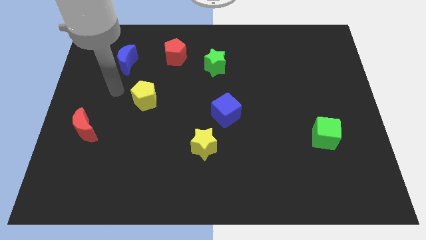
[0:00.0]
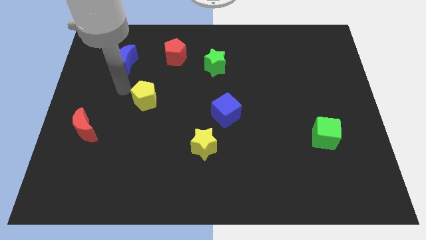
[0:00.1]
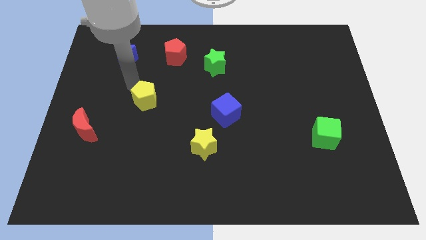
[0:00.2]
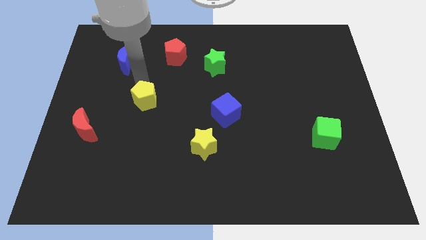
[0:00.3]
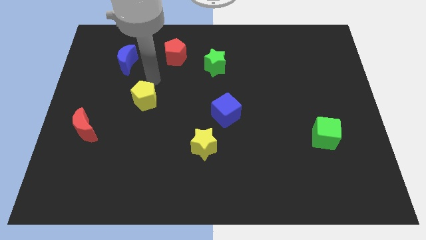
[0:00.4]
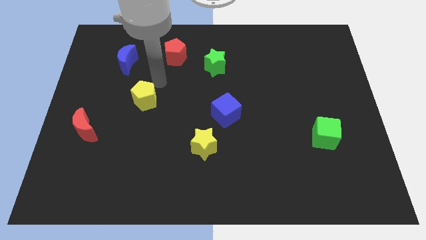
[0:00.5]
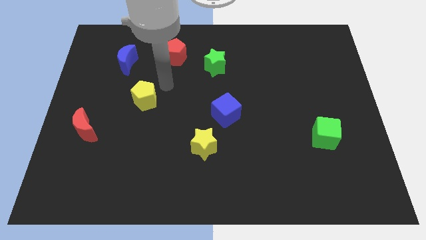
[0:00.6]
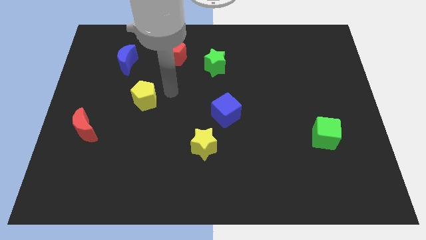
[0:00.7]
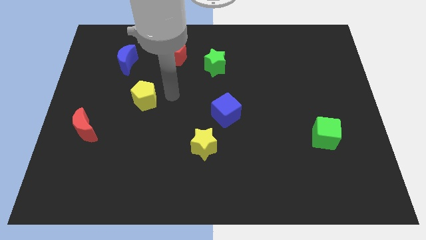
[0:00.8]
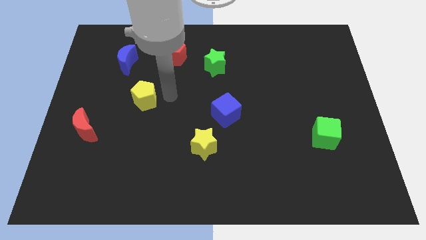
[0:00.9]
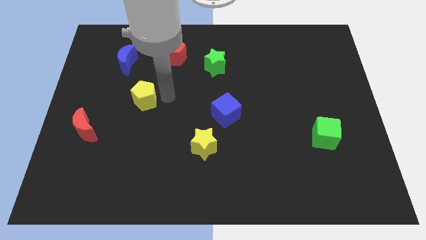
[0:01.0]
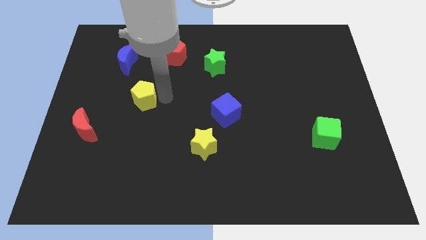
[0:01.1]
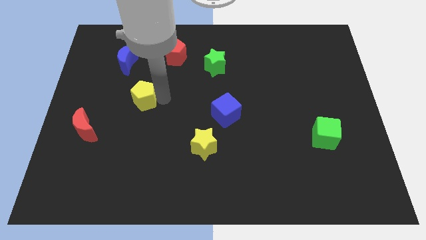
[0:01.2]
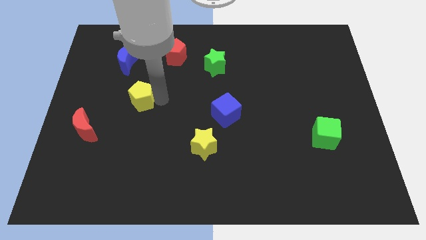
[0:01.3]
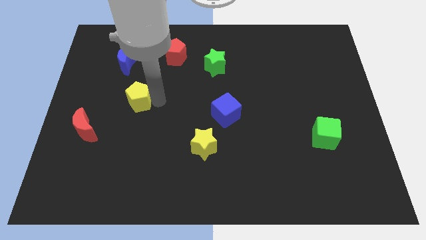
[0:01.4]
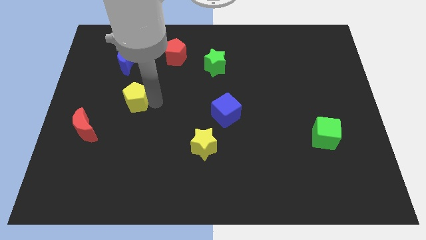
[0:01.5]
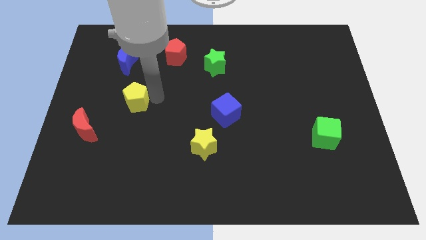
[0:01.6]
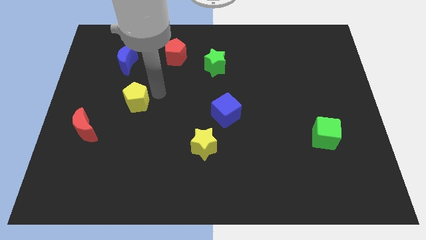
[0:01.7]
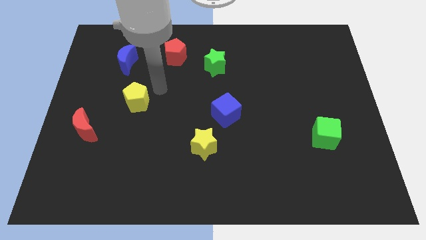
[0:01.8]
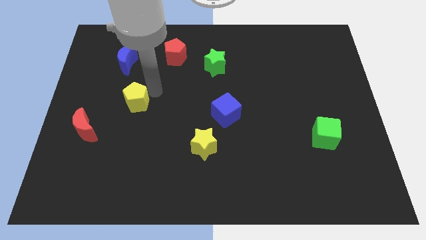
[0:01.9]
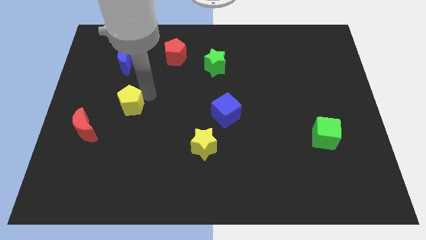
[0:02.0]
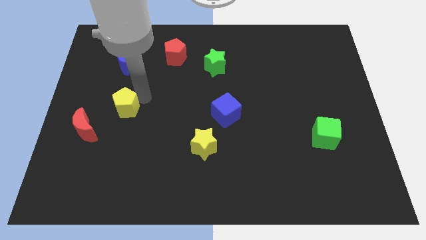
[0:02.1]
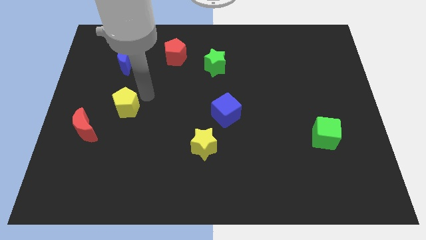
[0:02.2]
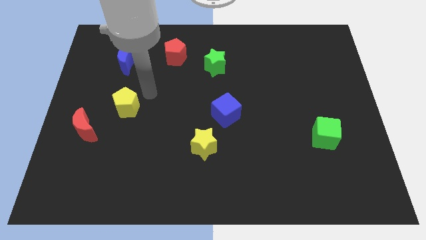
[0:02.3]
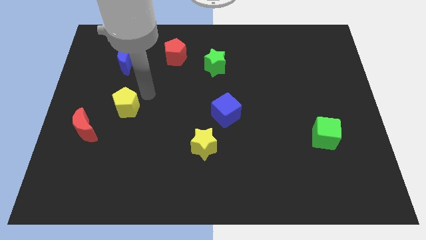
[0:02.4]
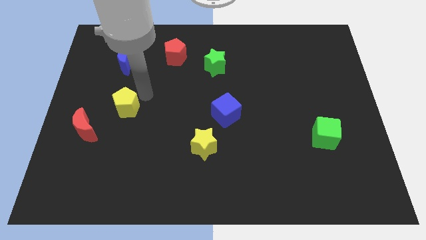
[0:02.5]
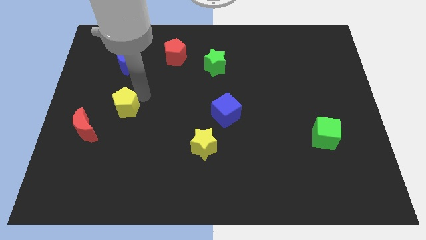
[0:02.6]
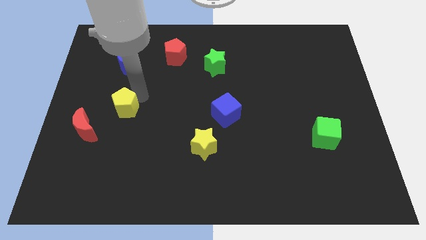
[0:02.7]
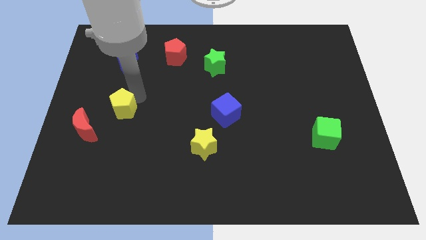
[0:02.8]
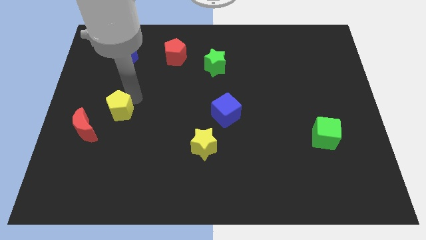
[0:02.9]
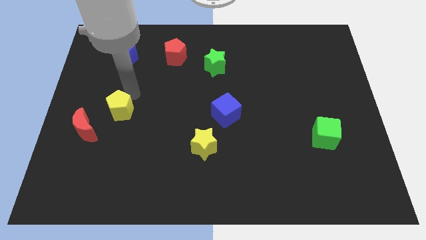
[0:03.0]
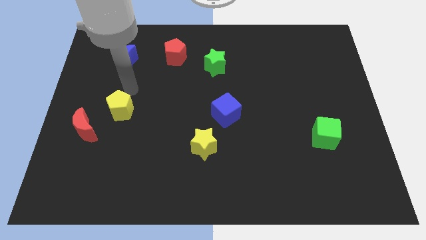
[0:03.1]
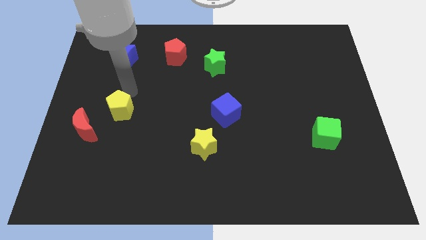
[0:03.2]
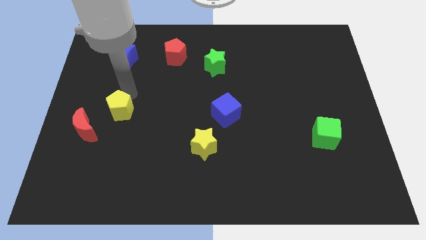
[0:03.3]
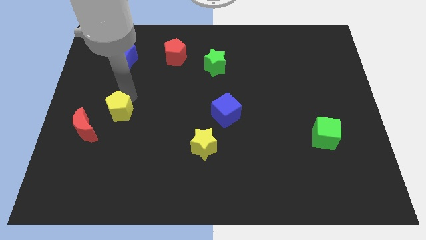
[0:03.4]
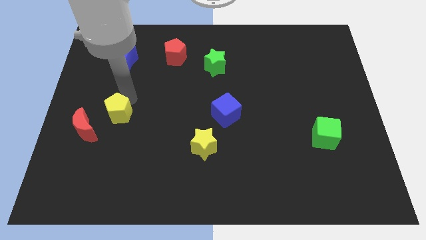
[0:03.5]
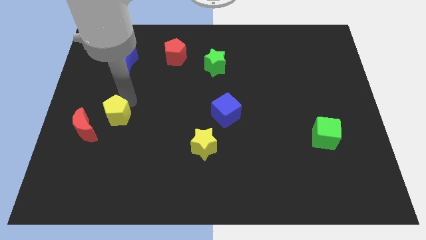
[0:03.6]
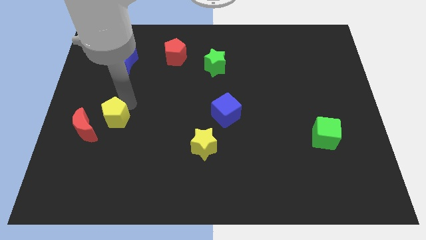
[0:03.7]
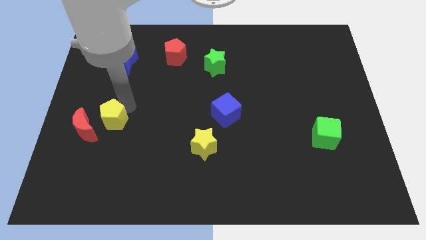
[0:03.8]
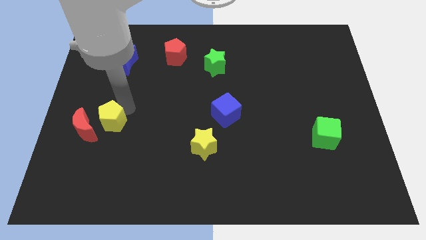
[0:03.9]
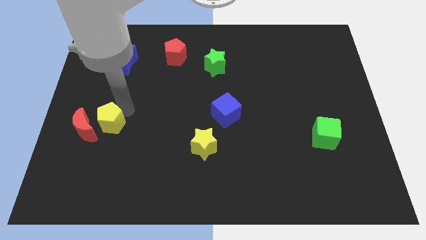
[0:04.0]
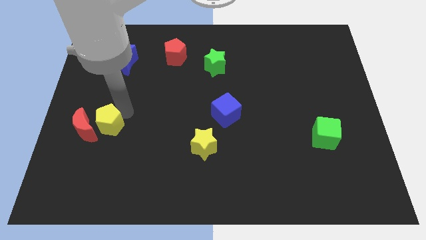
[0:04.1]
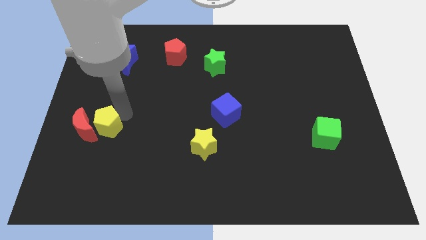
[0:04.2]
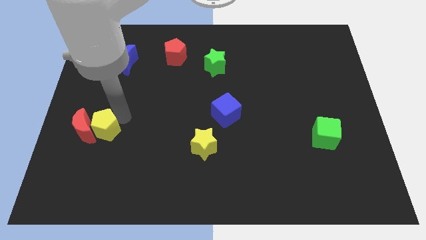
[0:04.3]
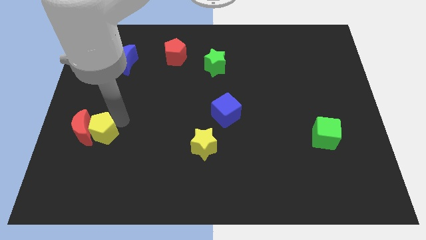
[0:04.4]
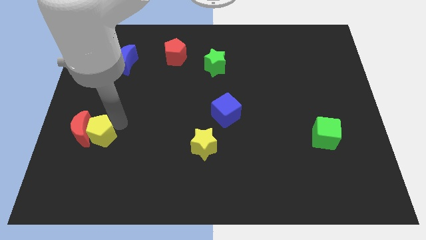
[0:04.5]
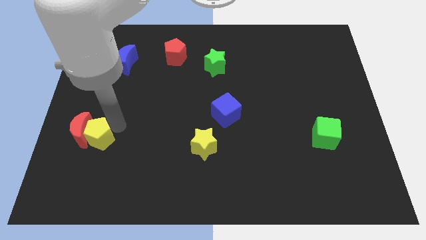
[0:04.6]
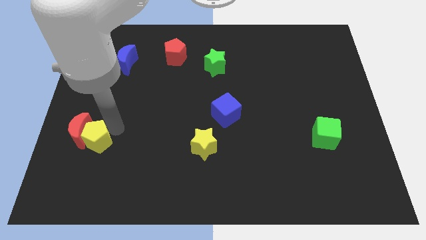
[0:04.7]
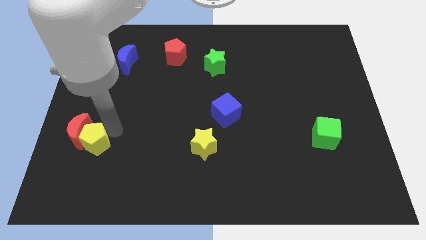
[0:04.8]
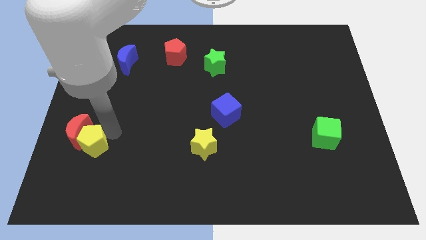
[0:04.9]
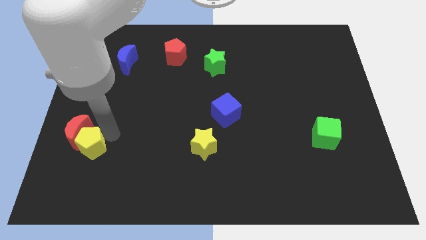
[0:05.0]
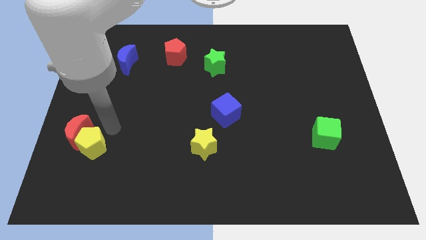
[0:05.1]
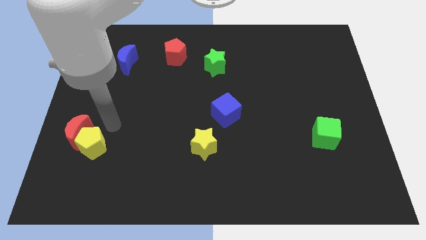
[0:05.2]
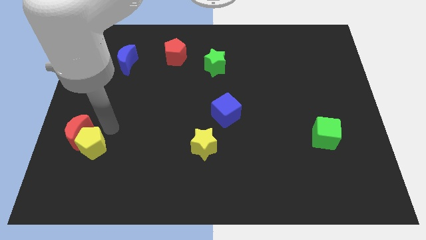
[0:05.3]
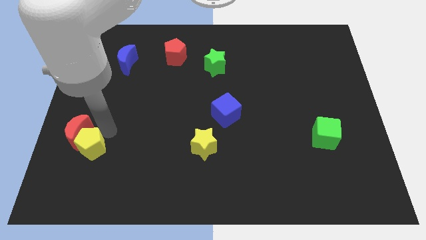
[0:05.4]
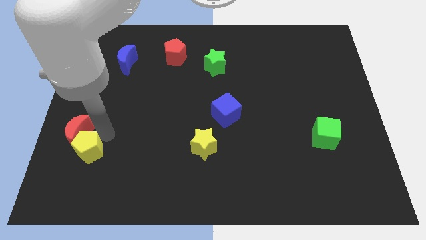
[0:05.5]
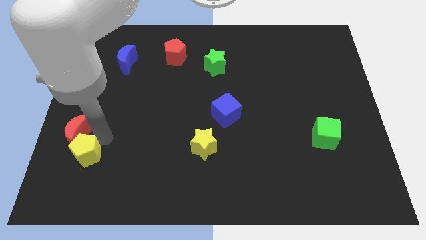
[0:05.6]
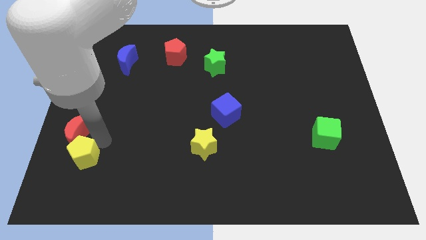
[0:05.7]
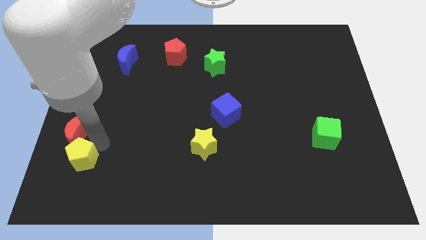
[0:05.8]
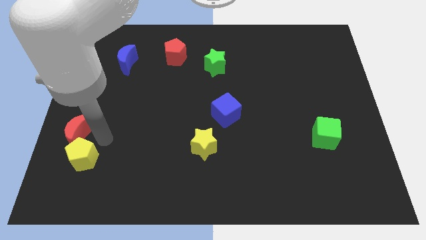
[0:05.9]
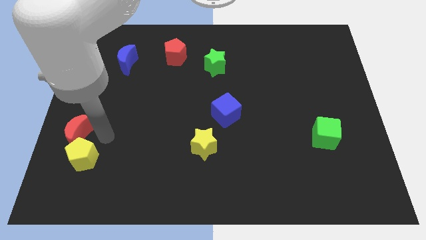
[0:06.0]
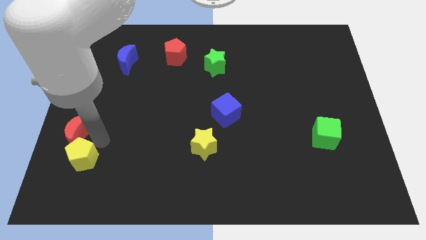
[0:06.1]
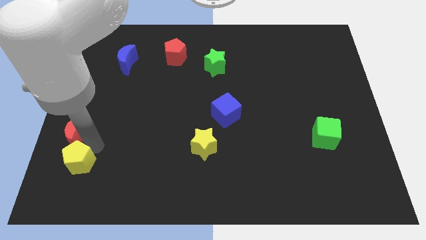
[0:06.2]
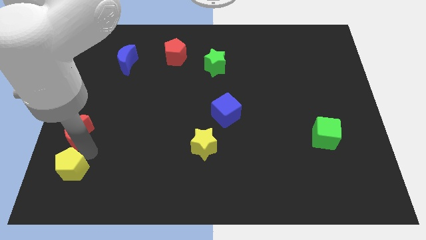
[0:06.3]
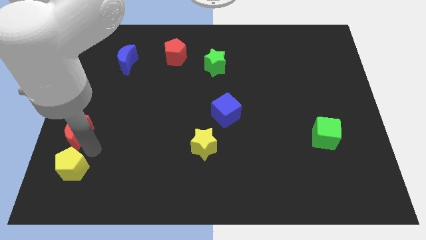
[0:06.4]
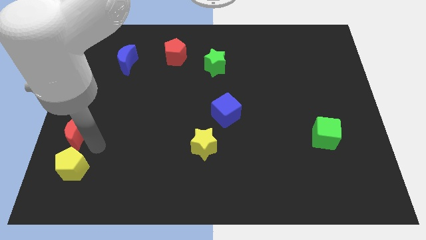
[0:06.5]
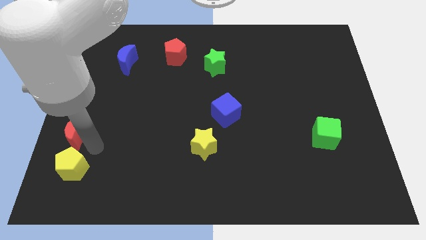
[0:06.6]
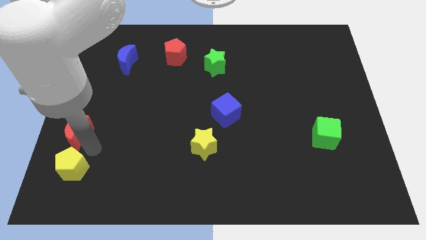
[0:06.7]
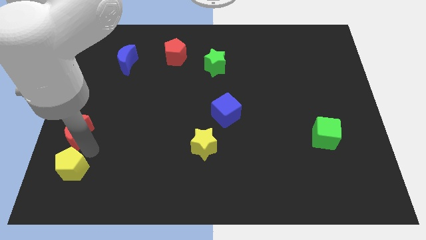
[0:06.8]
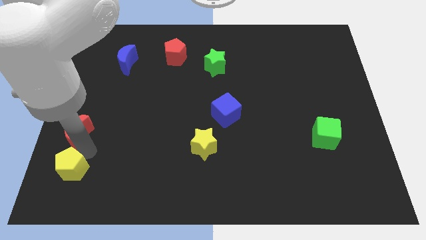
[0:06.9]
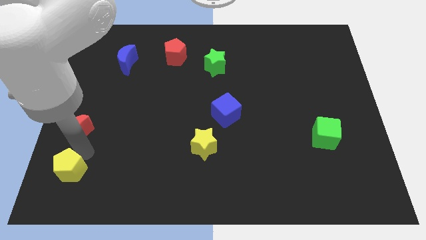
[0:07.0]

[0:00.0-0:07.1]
slide the yellow pentagon to the bottom left
